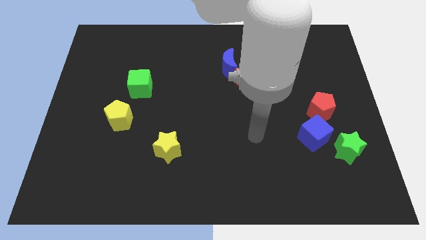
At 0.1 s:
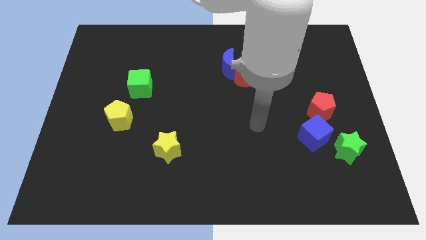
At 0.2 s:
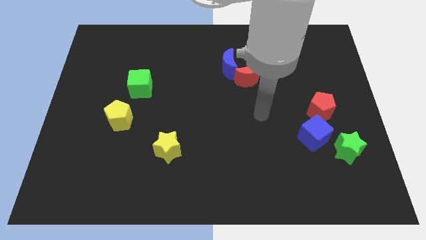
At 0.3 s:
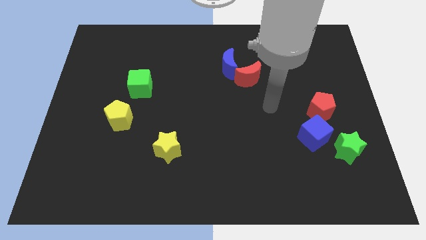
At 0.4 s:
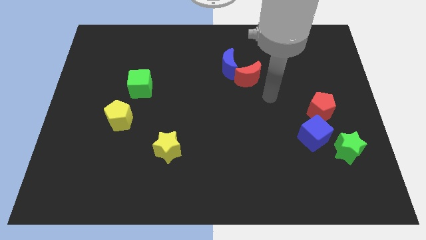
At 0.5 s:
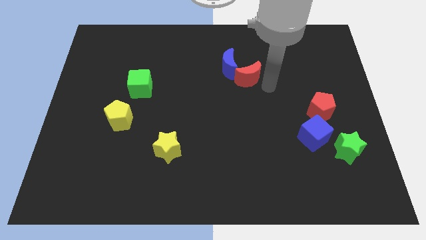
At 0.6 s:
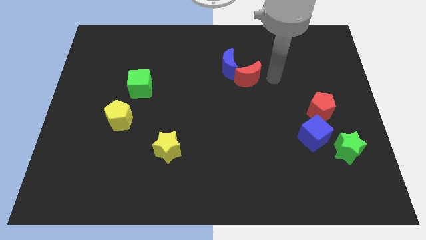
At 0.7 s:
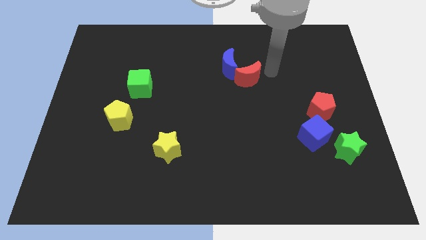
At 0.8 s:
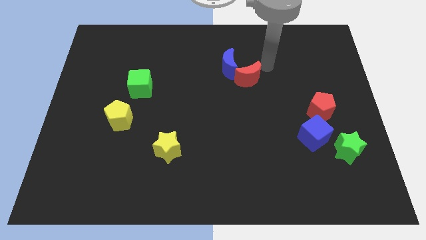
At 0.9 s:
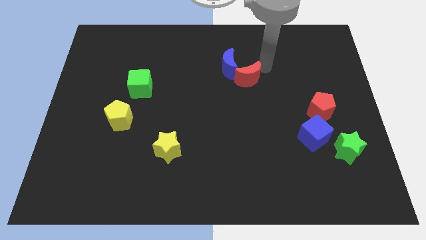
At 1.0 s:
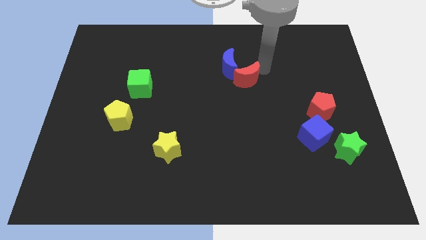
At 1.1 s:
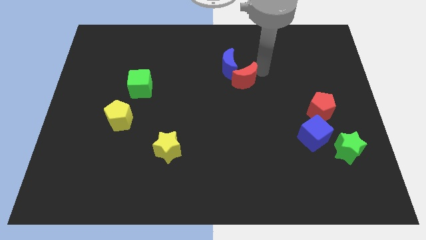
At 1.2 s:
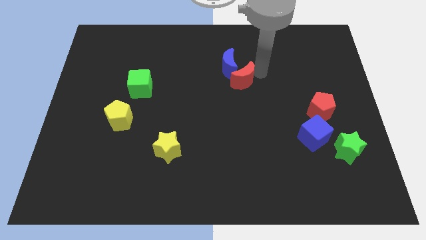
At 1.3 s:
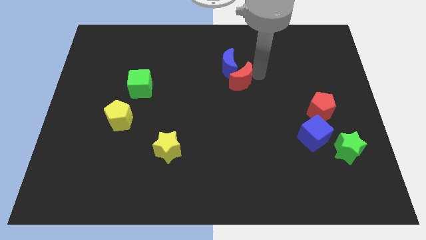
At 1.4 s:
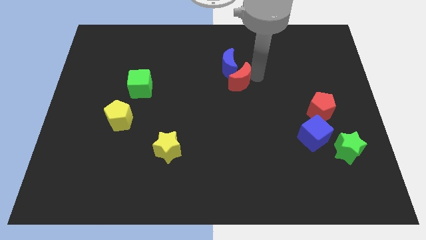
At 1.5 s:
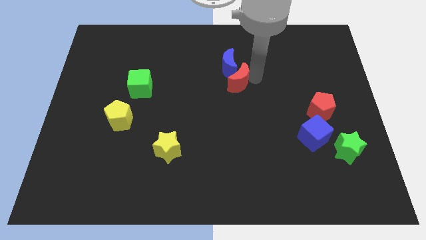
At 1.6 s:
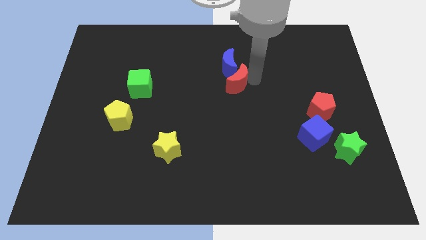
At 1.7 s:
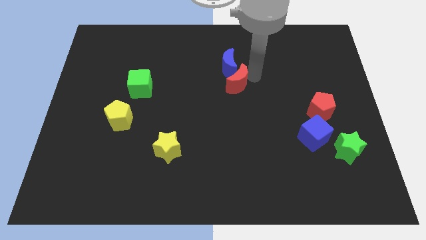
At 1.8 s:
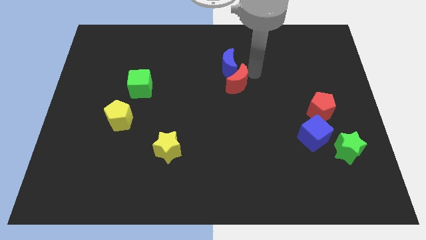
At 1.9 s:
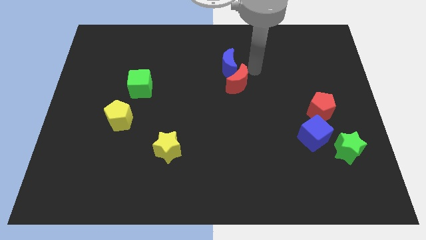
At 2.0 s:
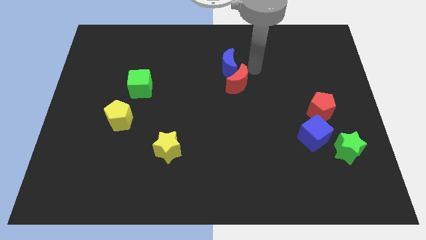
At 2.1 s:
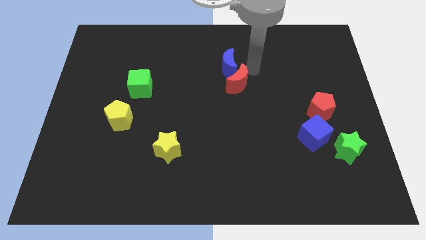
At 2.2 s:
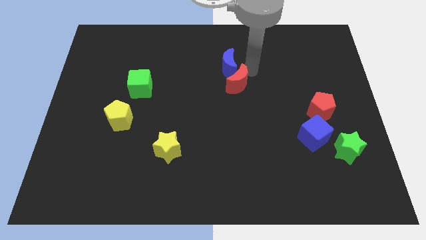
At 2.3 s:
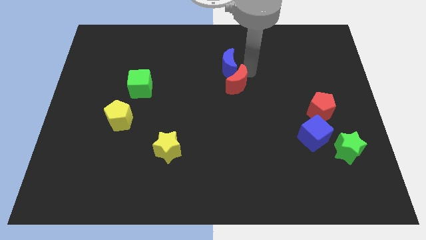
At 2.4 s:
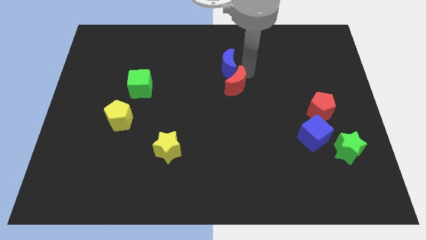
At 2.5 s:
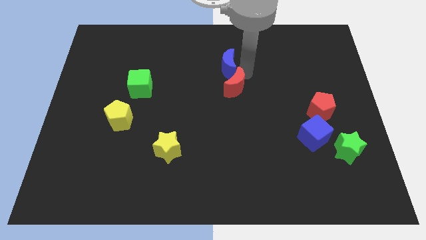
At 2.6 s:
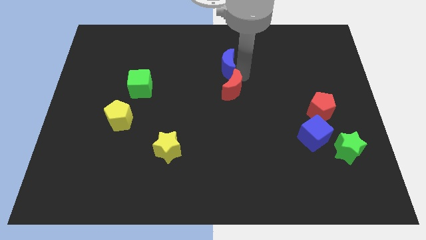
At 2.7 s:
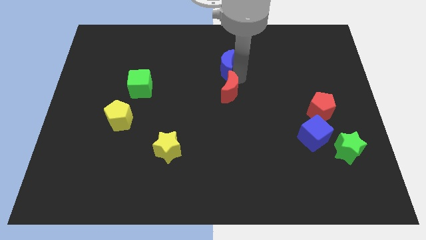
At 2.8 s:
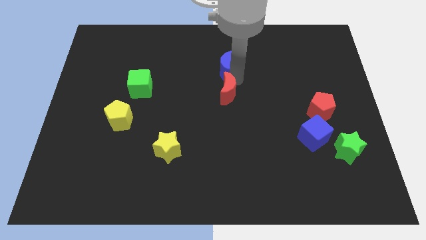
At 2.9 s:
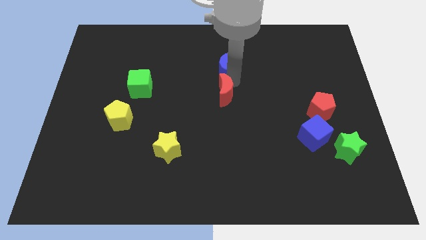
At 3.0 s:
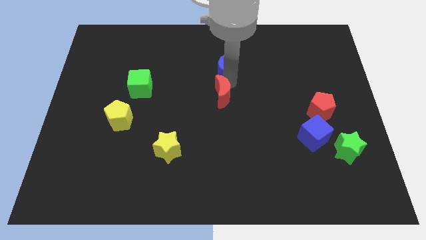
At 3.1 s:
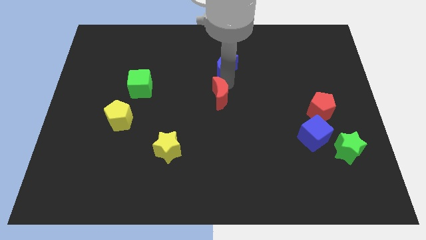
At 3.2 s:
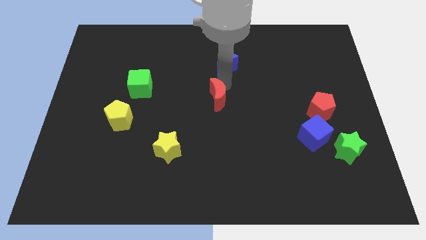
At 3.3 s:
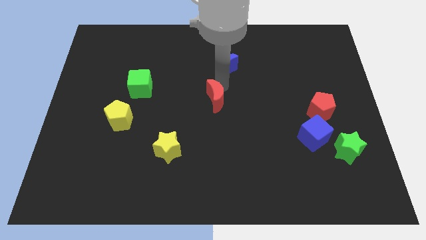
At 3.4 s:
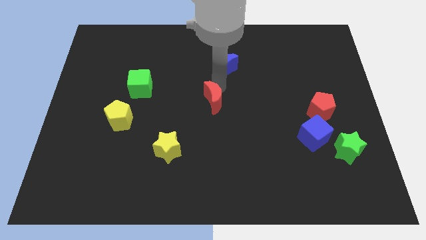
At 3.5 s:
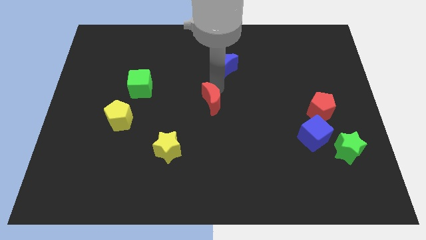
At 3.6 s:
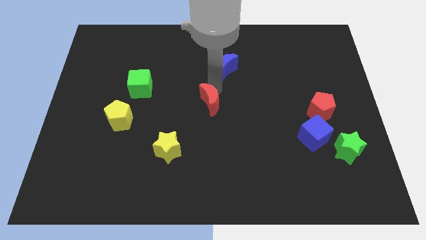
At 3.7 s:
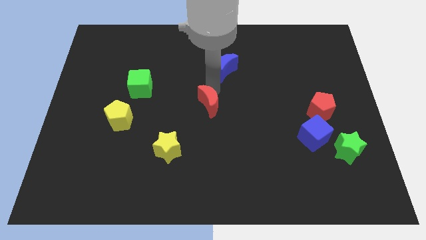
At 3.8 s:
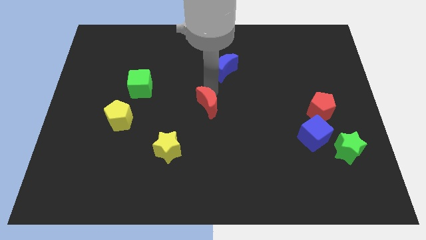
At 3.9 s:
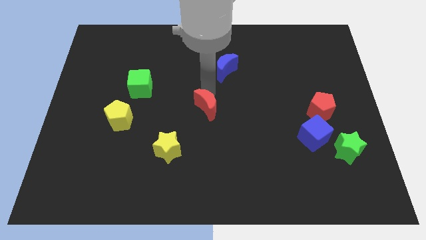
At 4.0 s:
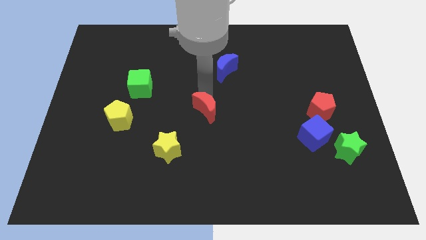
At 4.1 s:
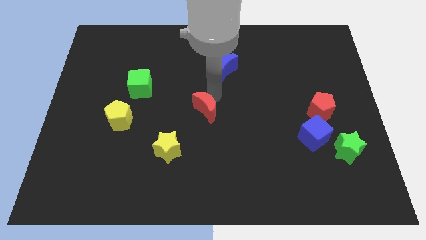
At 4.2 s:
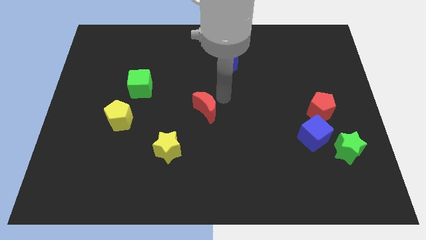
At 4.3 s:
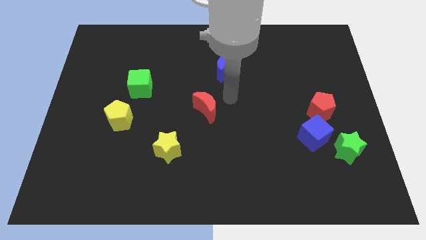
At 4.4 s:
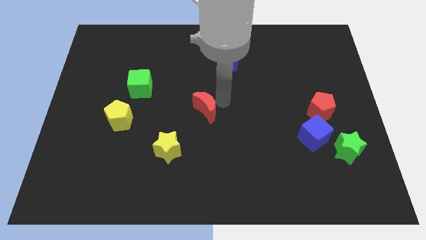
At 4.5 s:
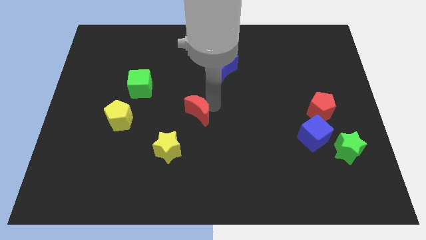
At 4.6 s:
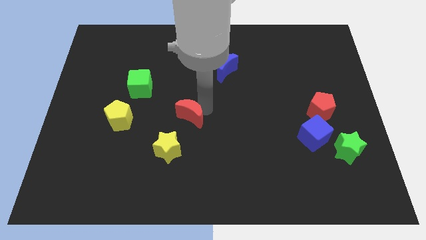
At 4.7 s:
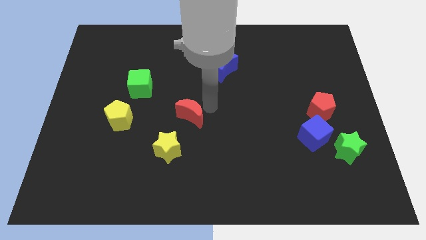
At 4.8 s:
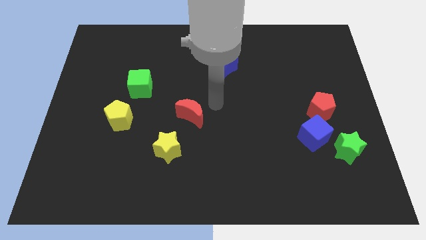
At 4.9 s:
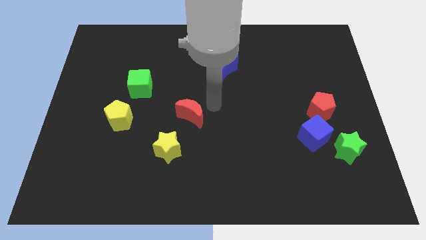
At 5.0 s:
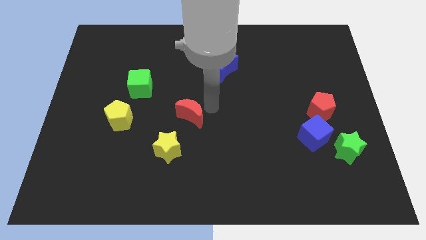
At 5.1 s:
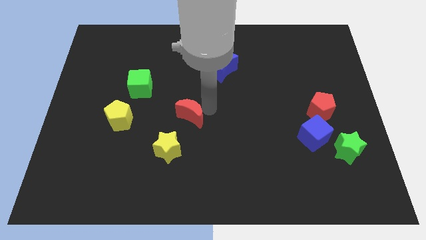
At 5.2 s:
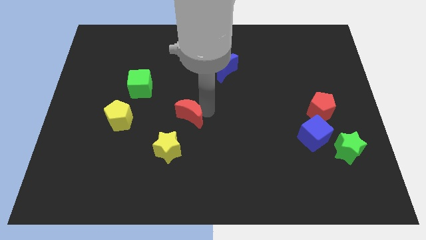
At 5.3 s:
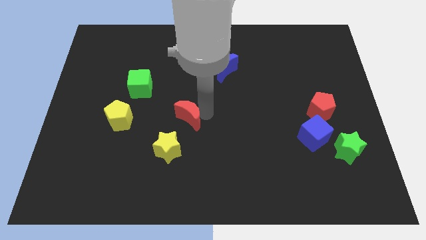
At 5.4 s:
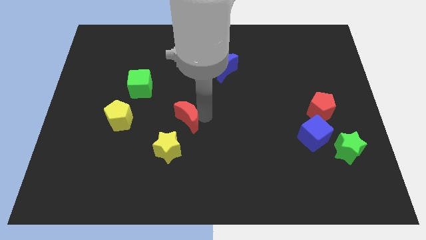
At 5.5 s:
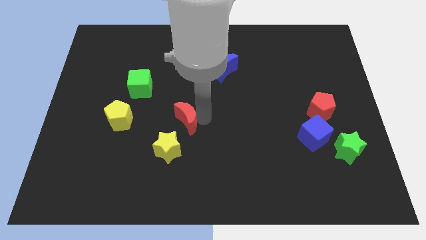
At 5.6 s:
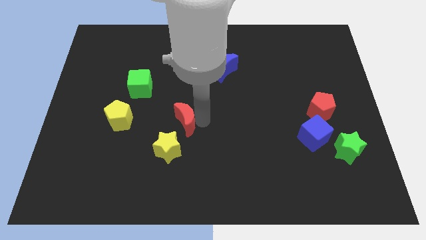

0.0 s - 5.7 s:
slide the red moon downwards and then to the left

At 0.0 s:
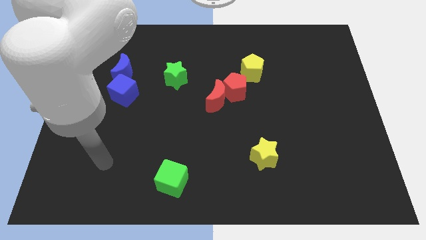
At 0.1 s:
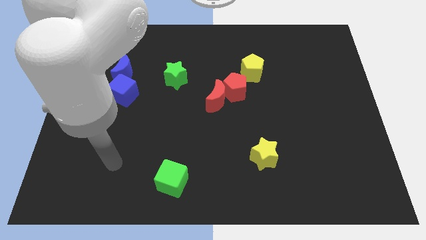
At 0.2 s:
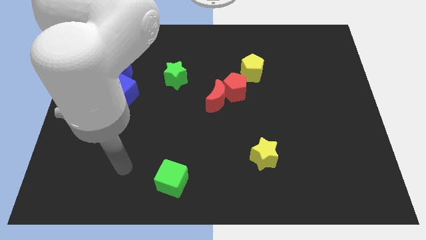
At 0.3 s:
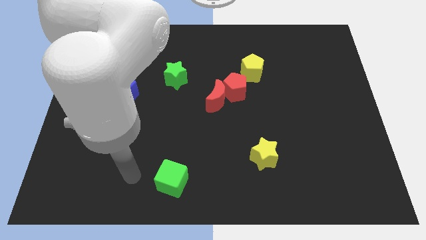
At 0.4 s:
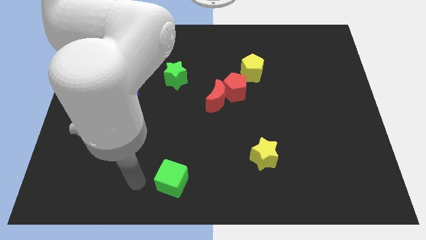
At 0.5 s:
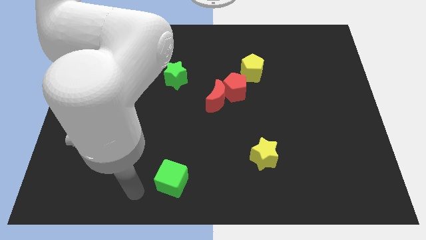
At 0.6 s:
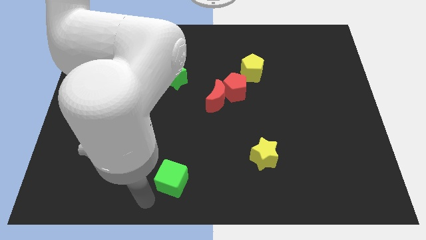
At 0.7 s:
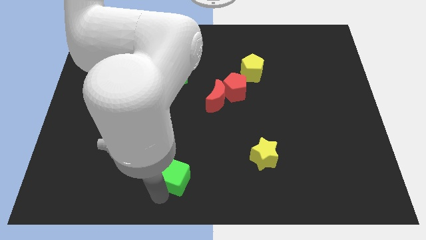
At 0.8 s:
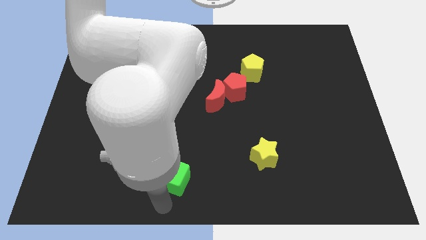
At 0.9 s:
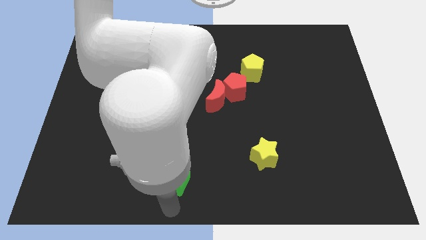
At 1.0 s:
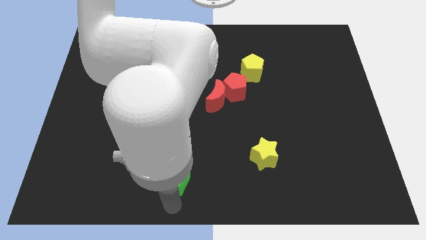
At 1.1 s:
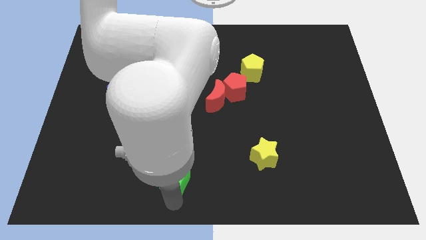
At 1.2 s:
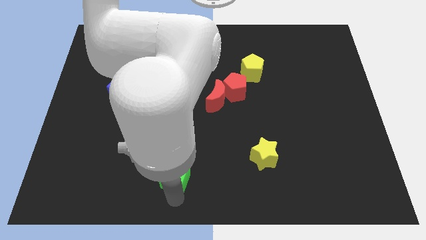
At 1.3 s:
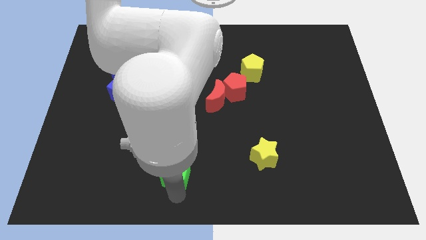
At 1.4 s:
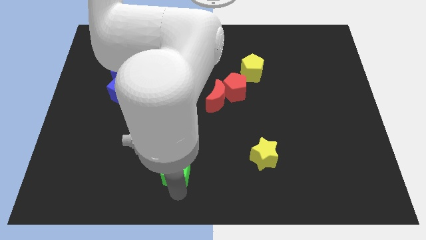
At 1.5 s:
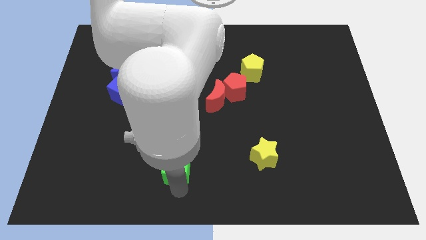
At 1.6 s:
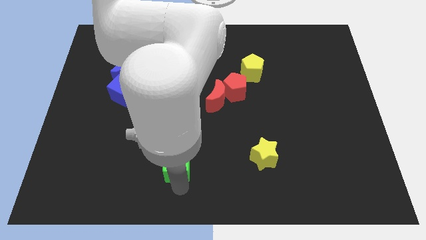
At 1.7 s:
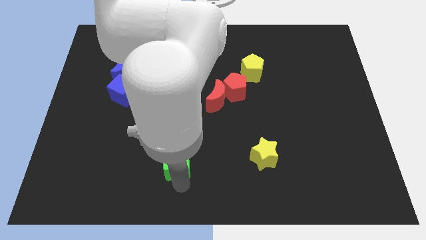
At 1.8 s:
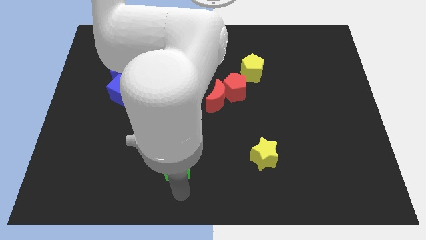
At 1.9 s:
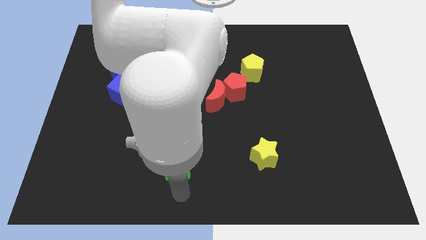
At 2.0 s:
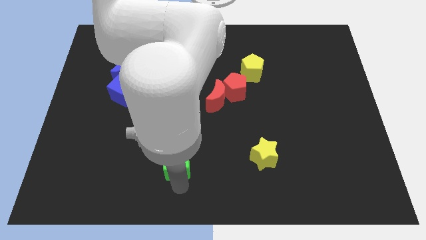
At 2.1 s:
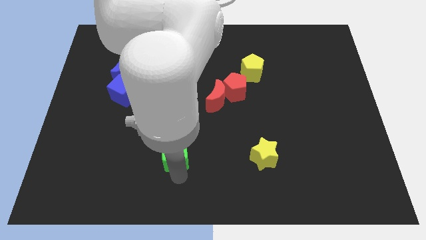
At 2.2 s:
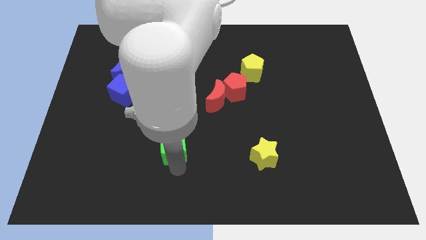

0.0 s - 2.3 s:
slide the green cube somewhat upwards

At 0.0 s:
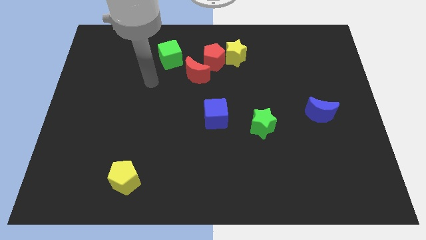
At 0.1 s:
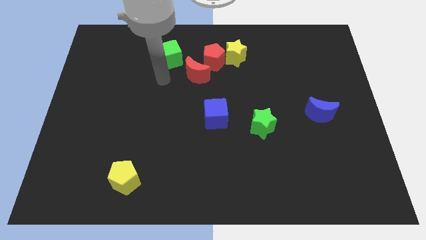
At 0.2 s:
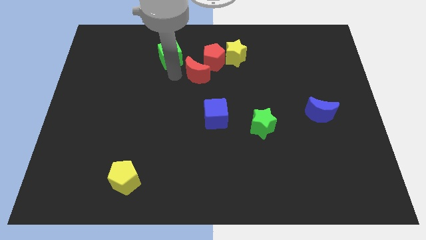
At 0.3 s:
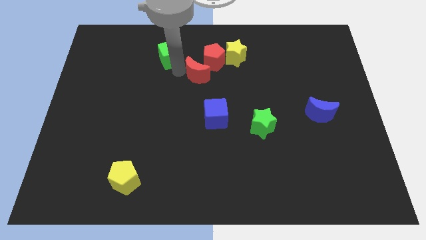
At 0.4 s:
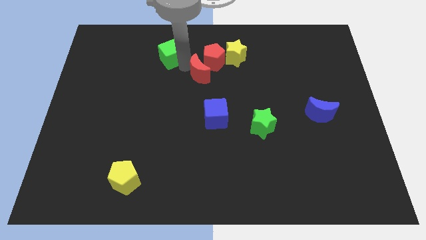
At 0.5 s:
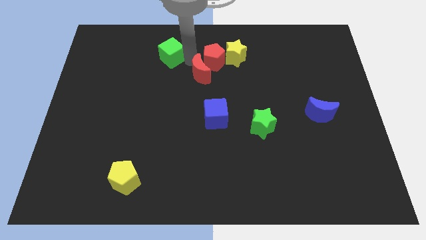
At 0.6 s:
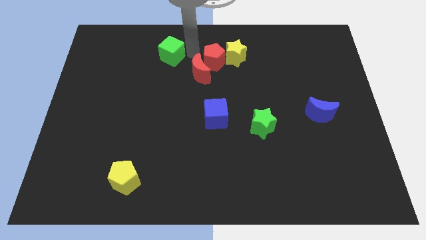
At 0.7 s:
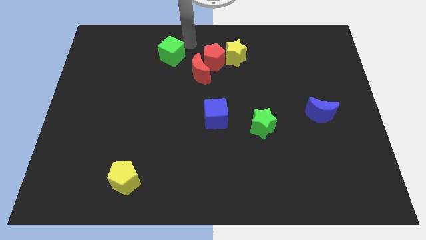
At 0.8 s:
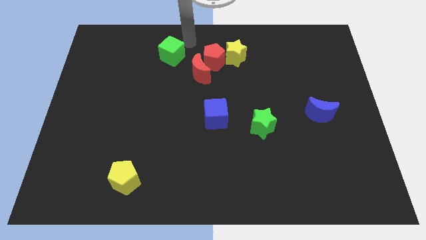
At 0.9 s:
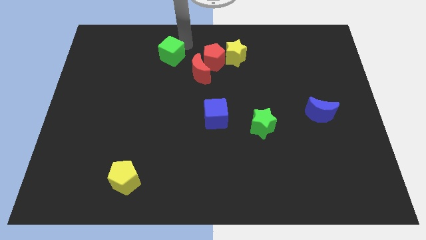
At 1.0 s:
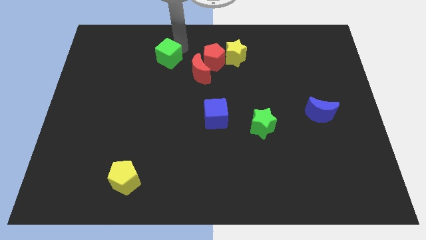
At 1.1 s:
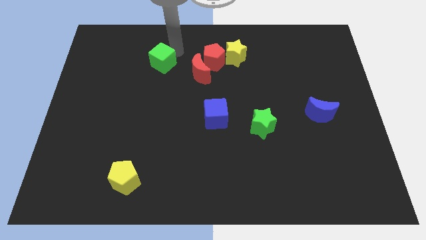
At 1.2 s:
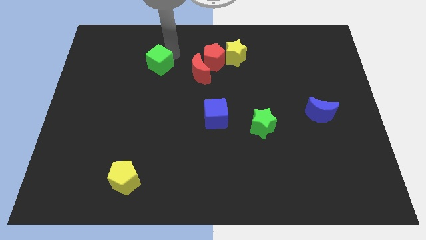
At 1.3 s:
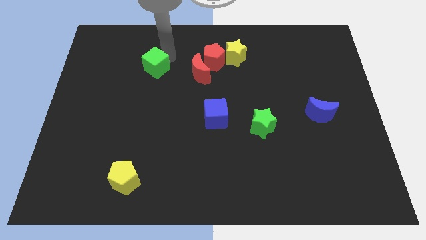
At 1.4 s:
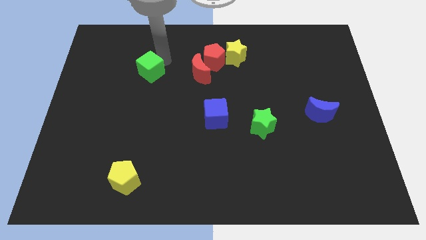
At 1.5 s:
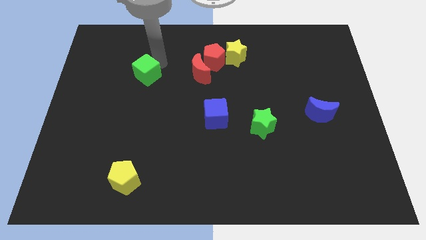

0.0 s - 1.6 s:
slide the green cube diagonally downwards and to the left slightly
